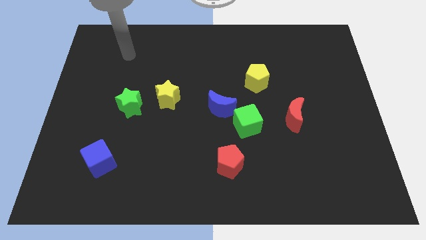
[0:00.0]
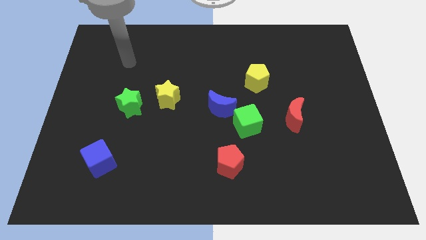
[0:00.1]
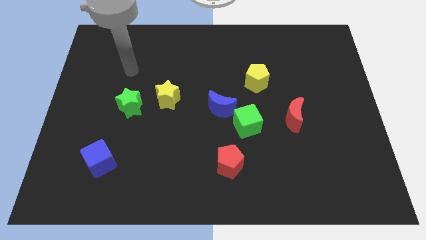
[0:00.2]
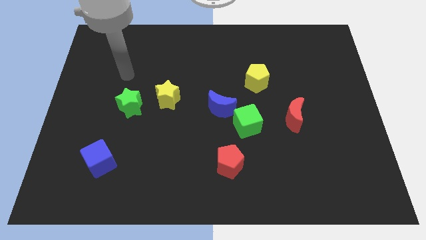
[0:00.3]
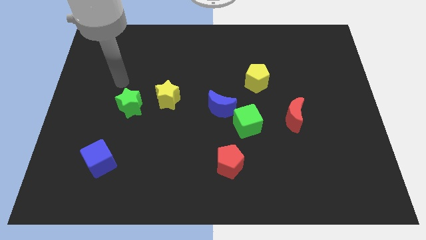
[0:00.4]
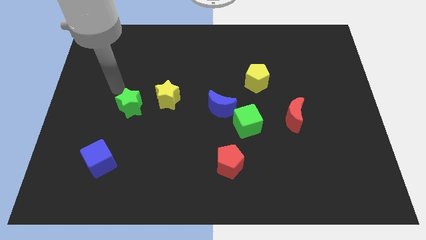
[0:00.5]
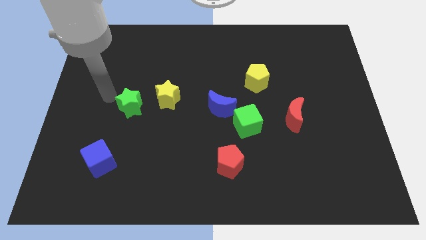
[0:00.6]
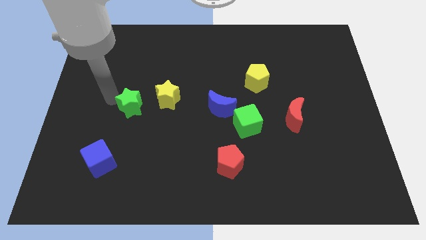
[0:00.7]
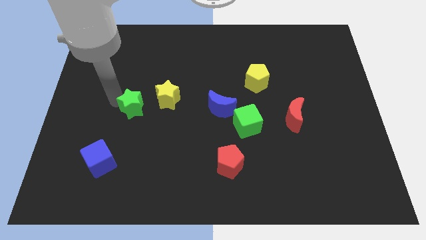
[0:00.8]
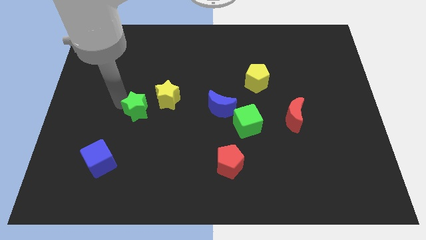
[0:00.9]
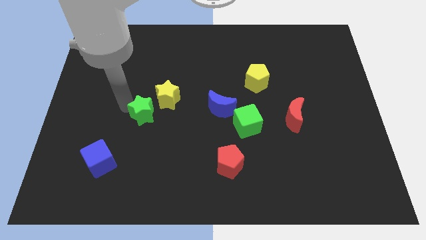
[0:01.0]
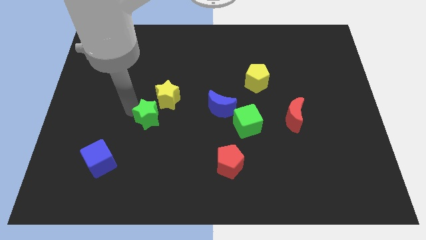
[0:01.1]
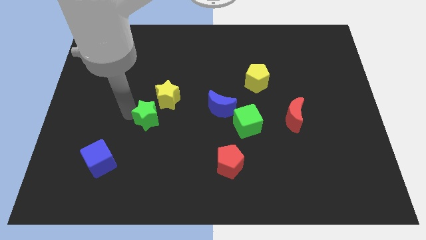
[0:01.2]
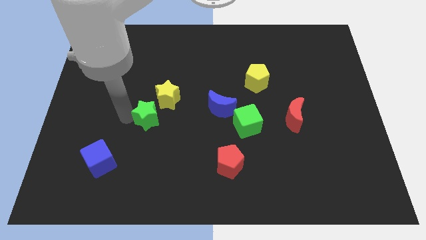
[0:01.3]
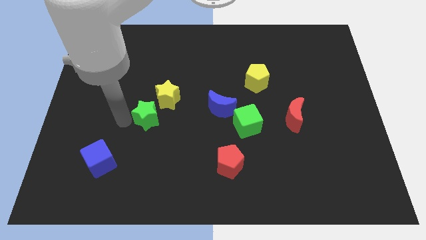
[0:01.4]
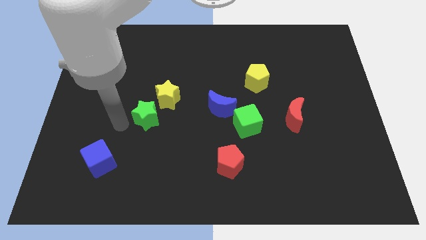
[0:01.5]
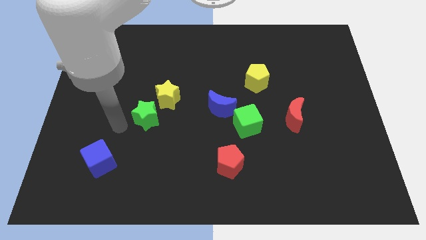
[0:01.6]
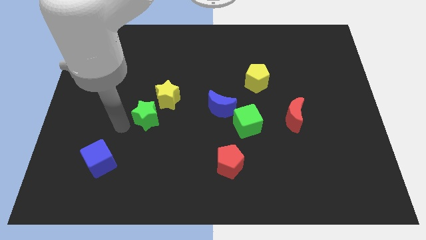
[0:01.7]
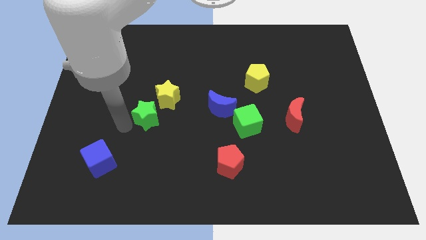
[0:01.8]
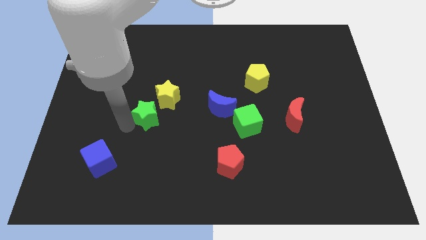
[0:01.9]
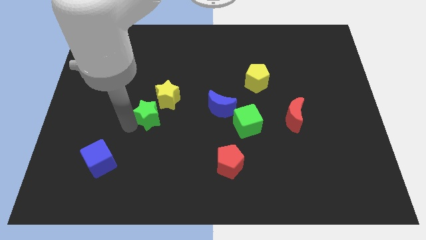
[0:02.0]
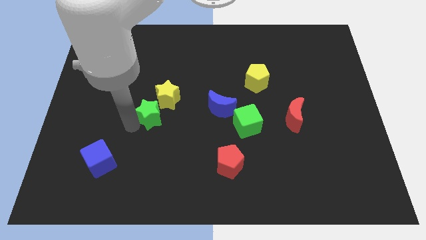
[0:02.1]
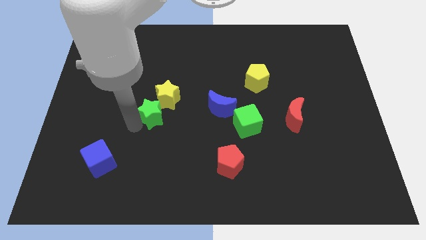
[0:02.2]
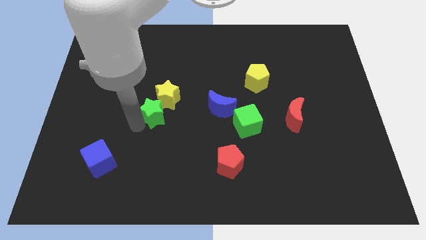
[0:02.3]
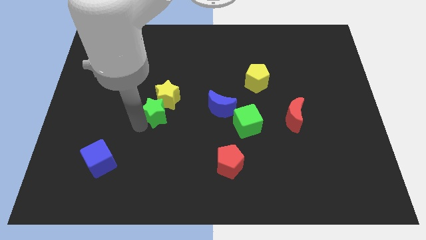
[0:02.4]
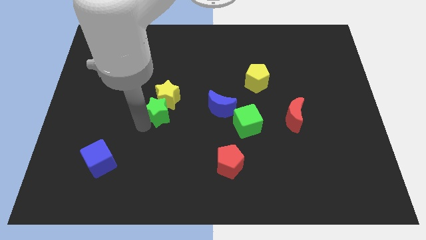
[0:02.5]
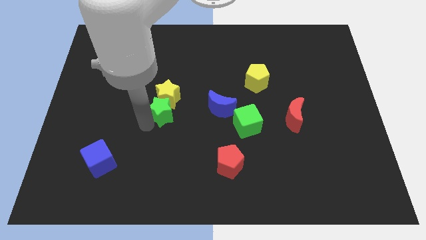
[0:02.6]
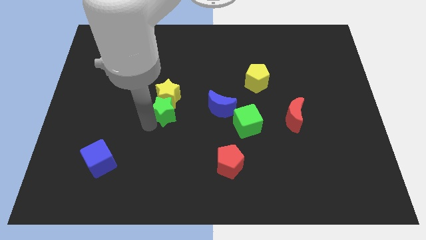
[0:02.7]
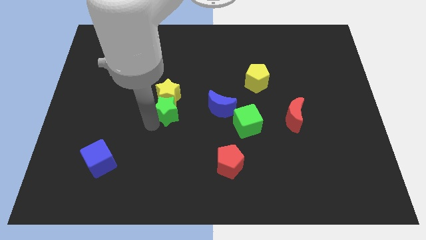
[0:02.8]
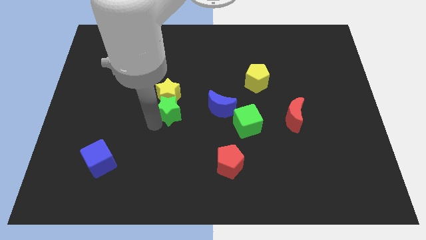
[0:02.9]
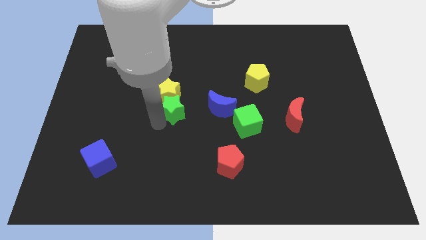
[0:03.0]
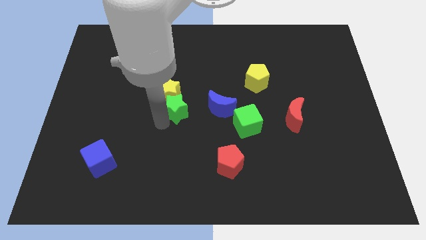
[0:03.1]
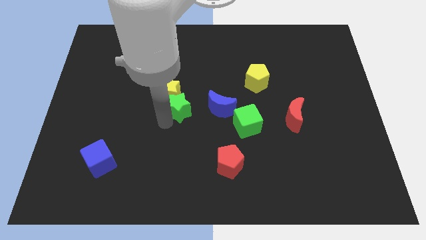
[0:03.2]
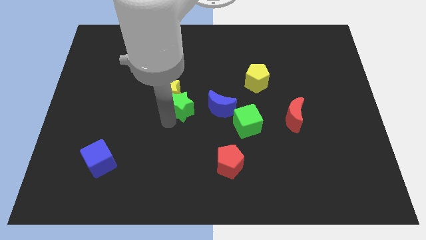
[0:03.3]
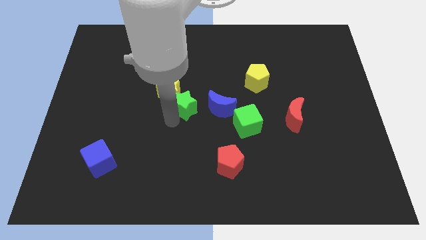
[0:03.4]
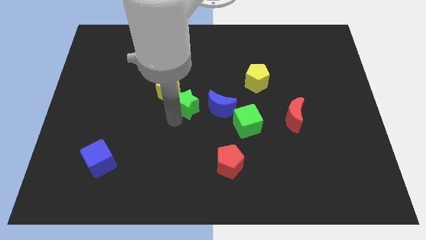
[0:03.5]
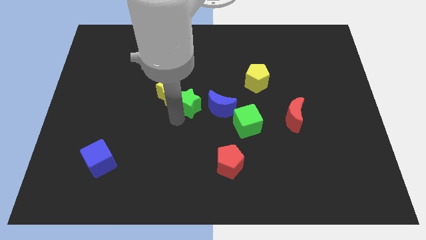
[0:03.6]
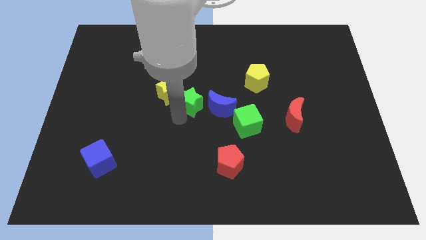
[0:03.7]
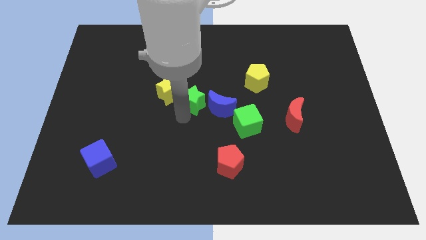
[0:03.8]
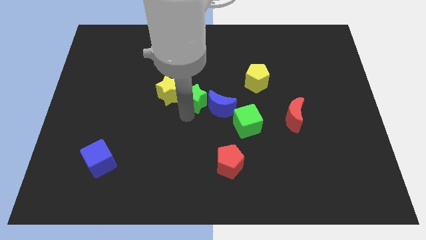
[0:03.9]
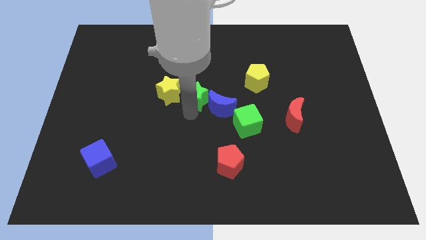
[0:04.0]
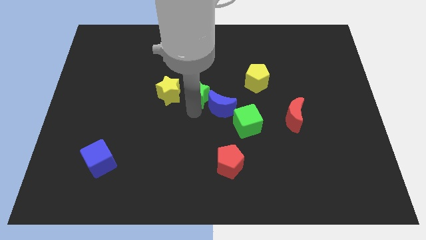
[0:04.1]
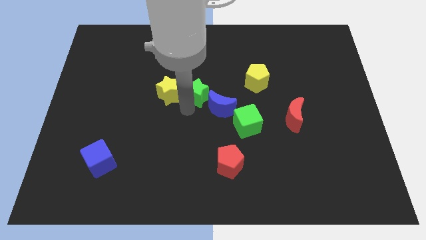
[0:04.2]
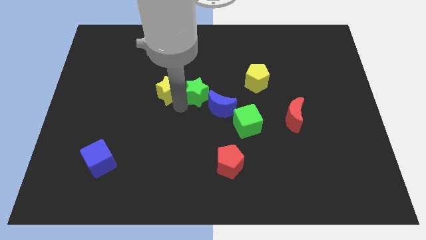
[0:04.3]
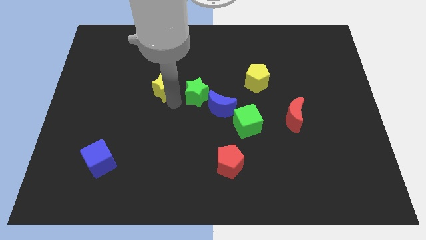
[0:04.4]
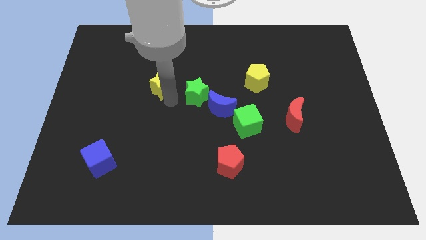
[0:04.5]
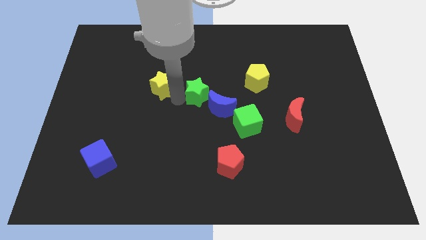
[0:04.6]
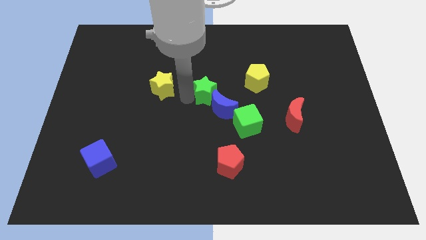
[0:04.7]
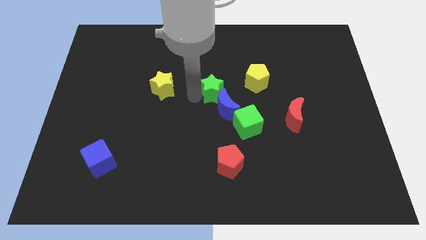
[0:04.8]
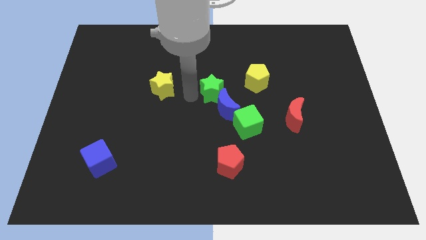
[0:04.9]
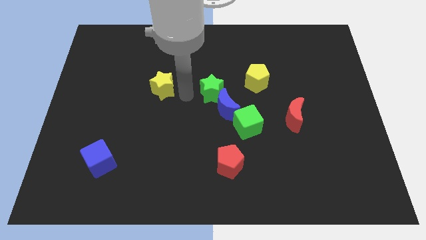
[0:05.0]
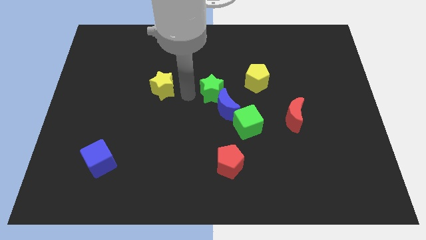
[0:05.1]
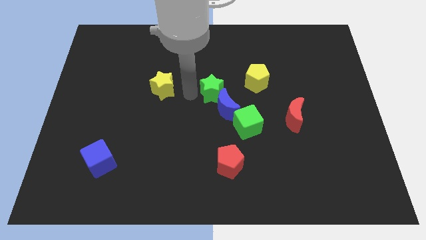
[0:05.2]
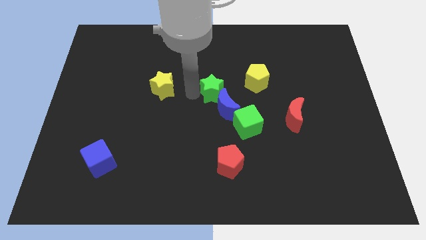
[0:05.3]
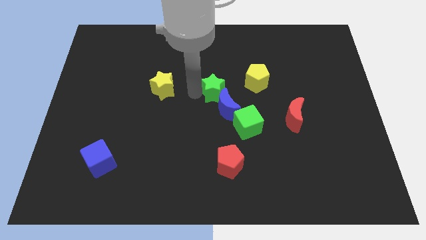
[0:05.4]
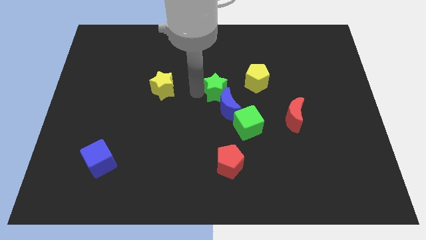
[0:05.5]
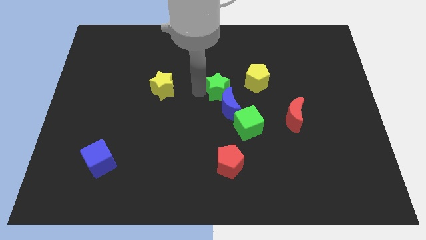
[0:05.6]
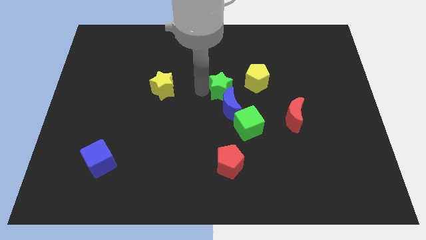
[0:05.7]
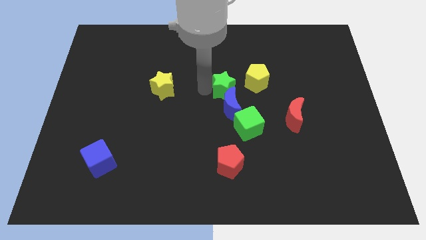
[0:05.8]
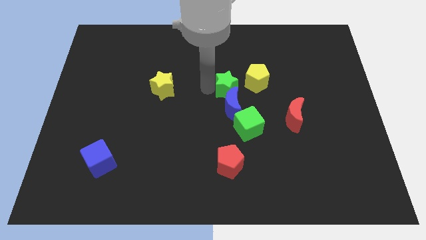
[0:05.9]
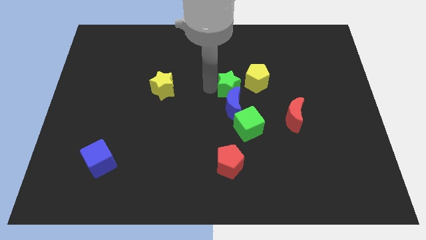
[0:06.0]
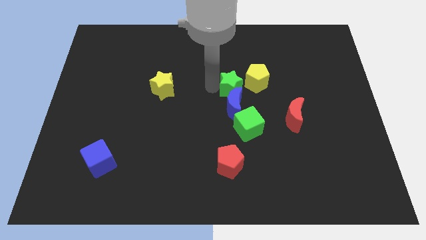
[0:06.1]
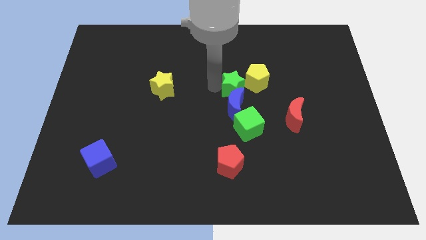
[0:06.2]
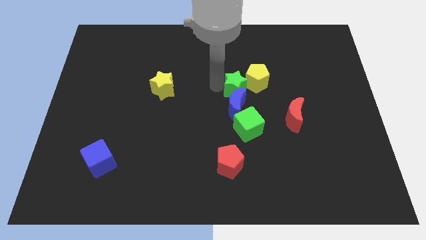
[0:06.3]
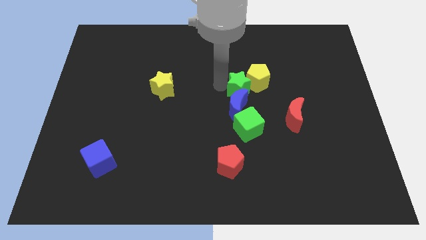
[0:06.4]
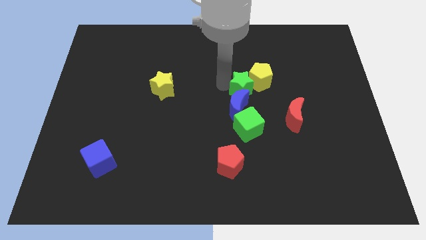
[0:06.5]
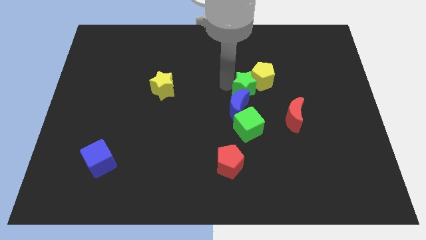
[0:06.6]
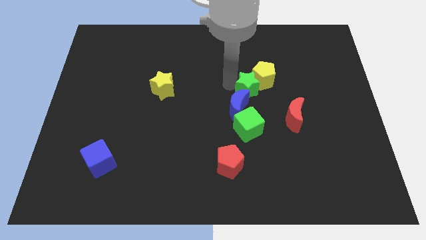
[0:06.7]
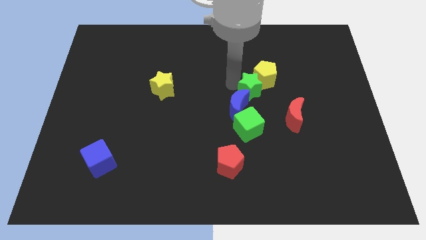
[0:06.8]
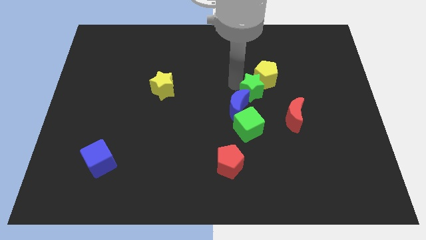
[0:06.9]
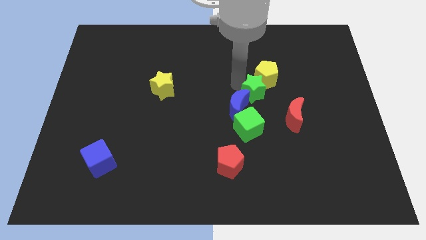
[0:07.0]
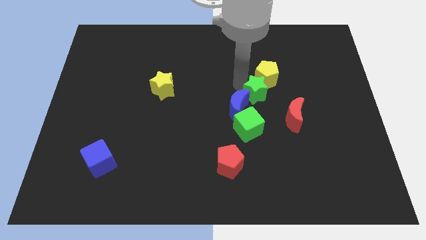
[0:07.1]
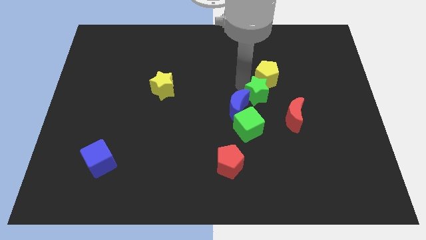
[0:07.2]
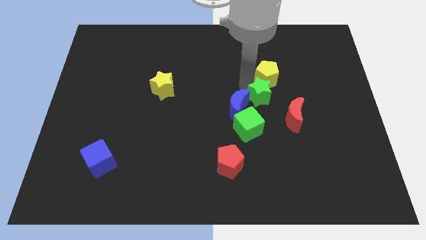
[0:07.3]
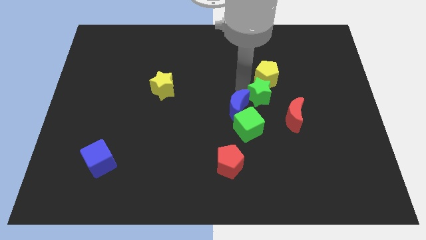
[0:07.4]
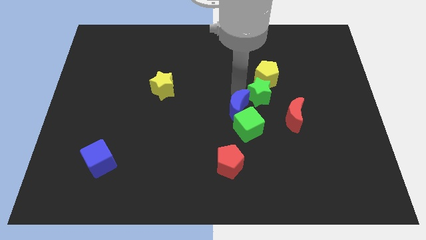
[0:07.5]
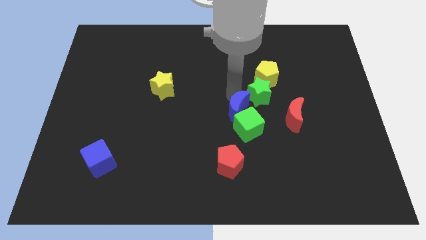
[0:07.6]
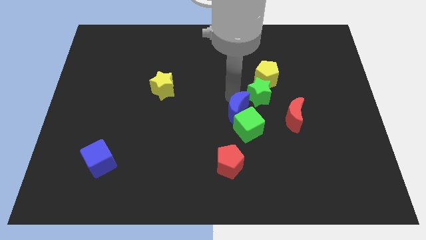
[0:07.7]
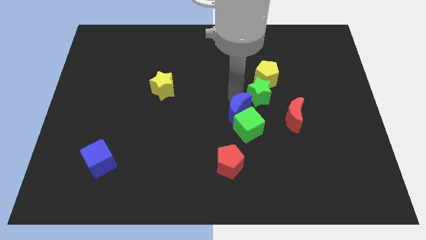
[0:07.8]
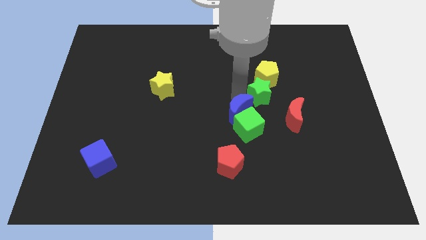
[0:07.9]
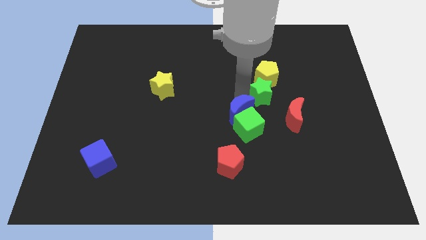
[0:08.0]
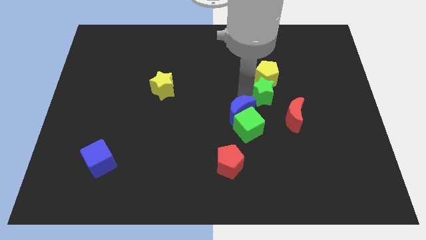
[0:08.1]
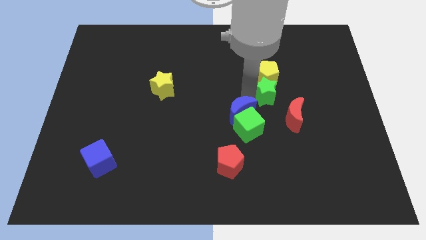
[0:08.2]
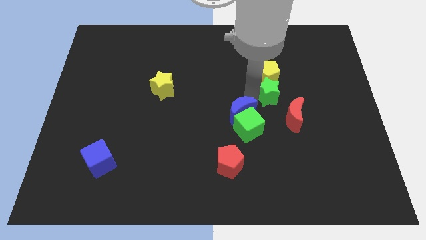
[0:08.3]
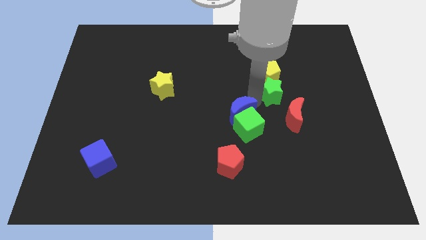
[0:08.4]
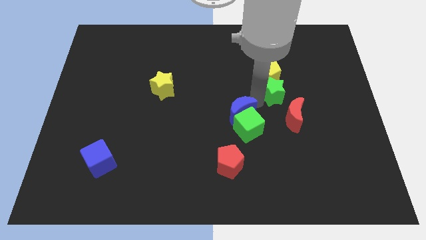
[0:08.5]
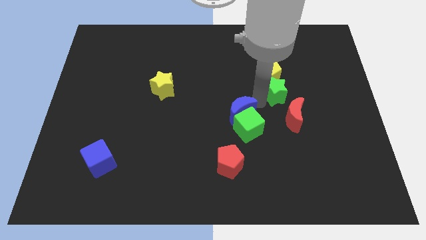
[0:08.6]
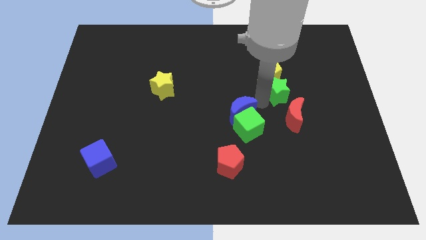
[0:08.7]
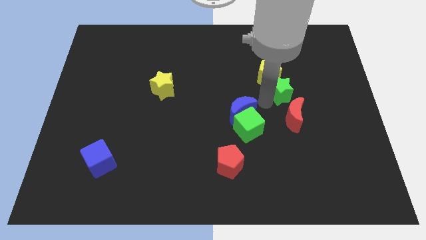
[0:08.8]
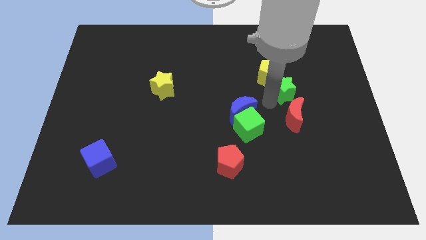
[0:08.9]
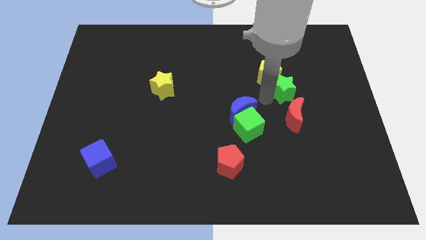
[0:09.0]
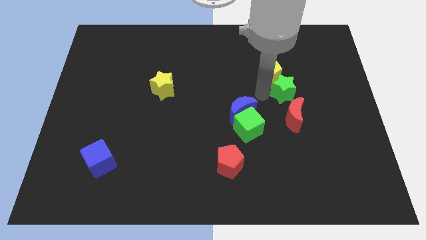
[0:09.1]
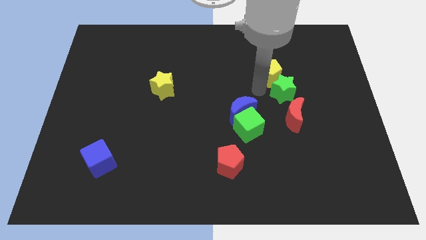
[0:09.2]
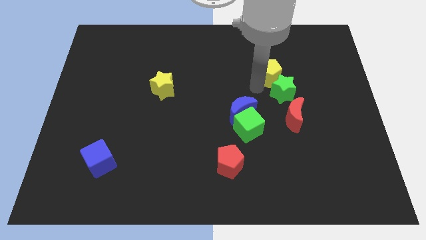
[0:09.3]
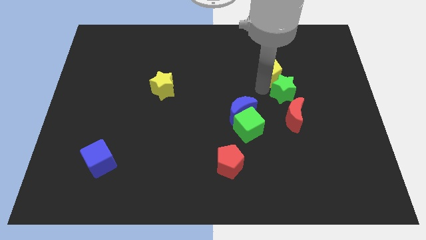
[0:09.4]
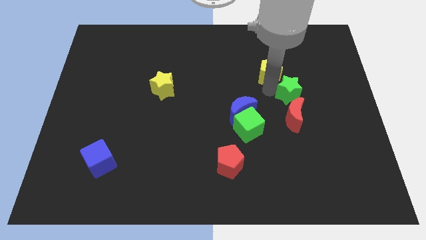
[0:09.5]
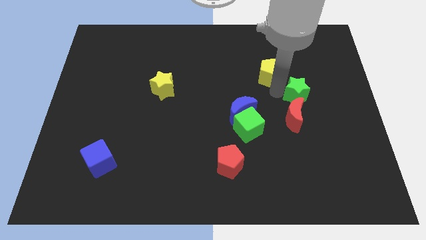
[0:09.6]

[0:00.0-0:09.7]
move the green star to the top right side of the red moon
